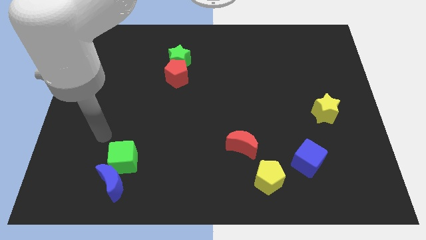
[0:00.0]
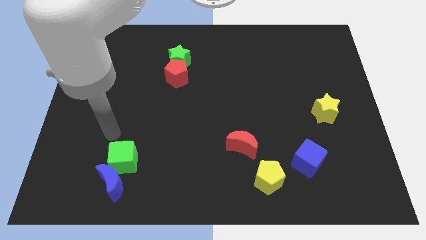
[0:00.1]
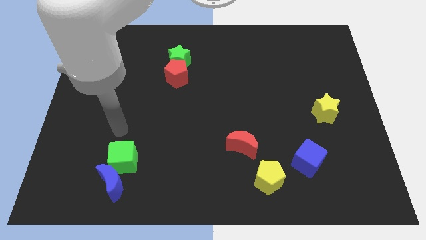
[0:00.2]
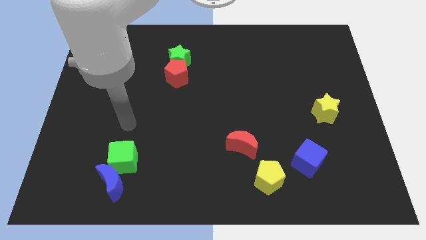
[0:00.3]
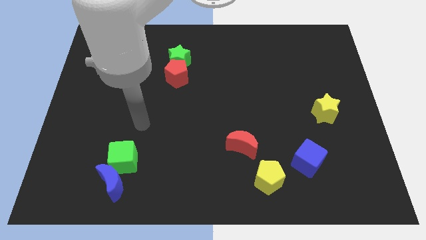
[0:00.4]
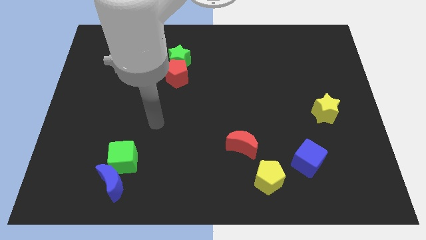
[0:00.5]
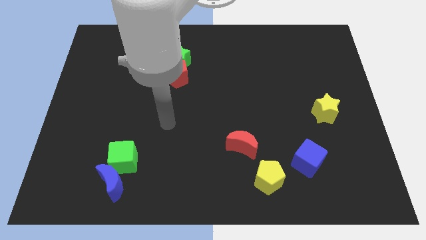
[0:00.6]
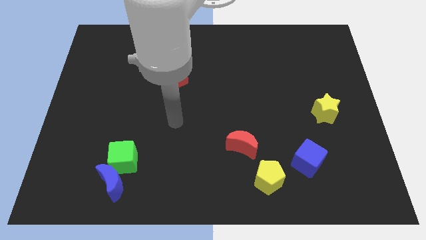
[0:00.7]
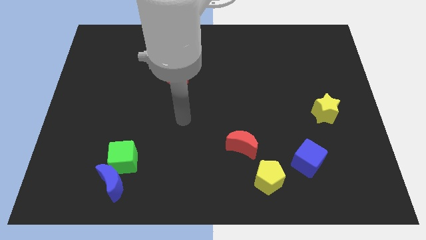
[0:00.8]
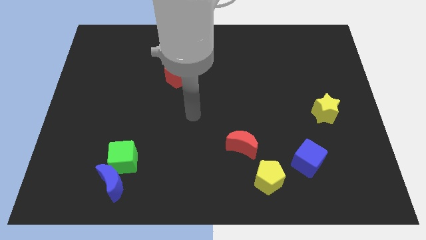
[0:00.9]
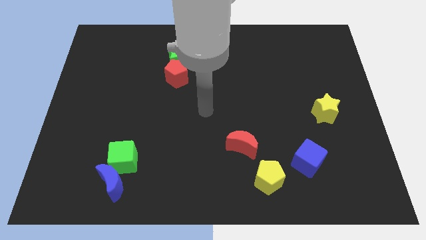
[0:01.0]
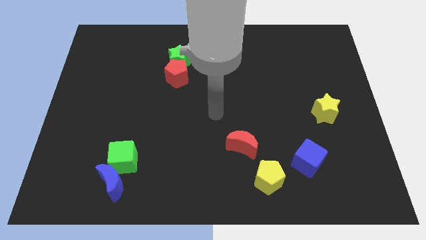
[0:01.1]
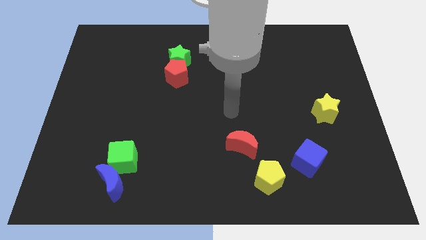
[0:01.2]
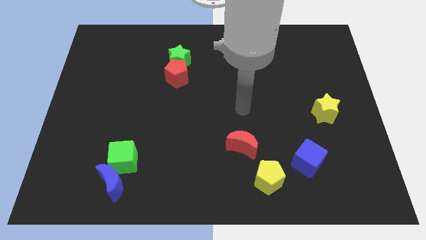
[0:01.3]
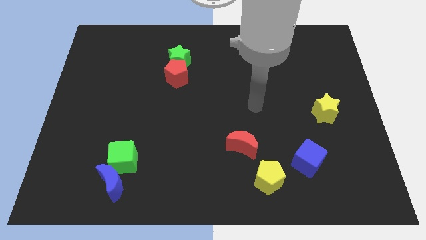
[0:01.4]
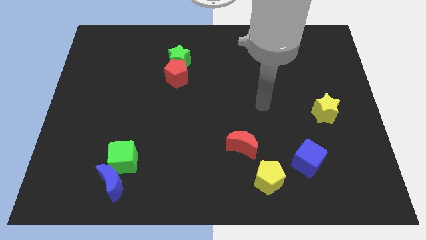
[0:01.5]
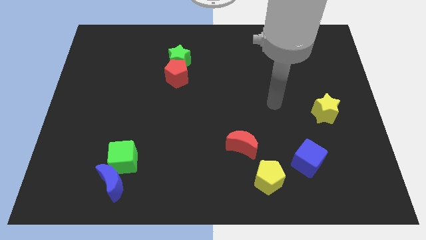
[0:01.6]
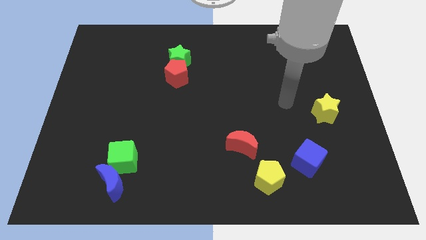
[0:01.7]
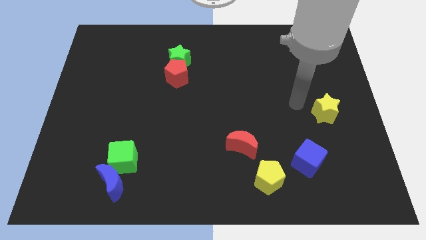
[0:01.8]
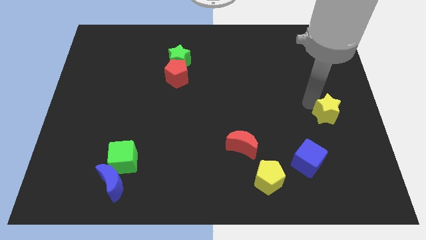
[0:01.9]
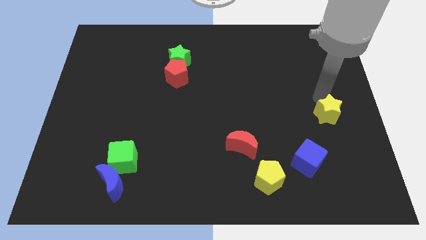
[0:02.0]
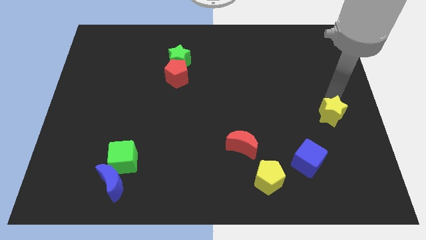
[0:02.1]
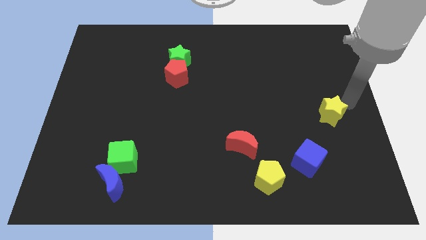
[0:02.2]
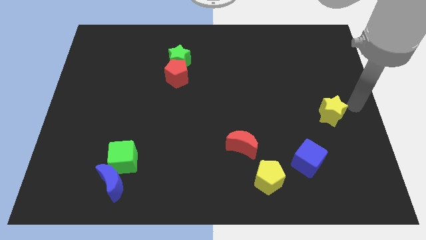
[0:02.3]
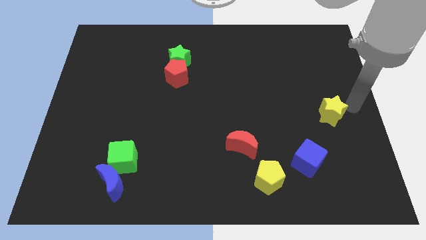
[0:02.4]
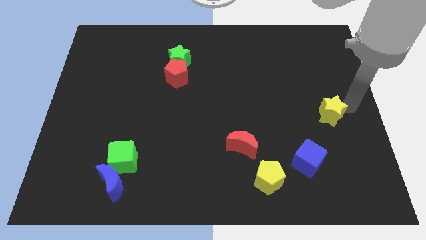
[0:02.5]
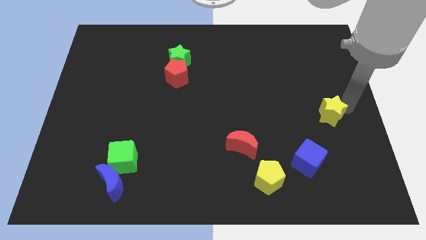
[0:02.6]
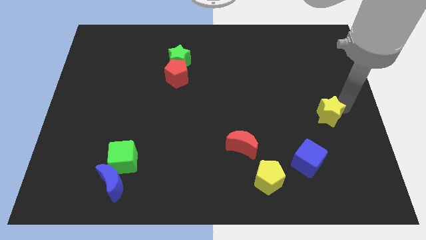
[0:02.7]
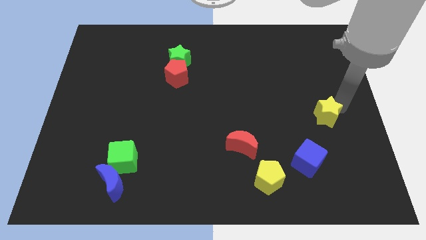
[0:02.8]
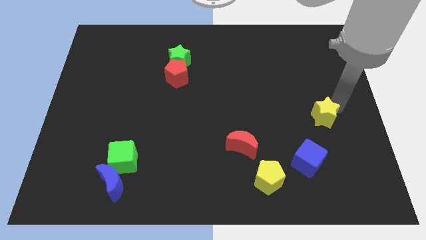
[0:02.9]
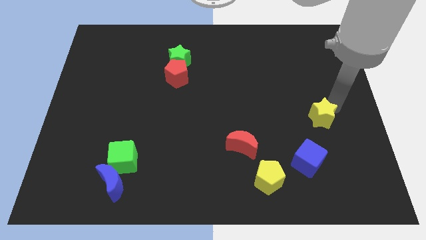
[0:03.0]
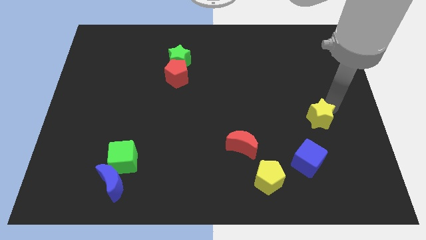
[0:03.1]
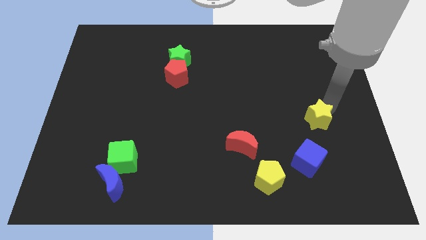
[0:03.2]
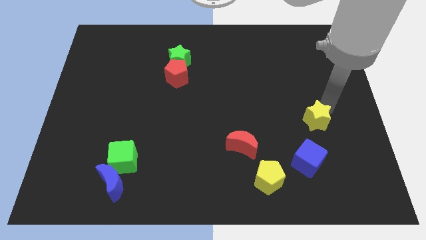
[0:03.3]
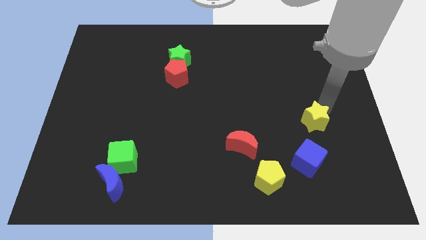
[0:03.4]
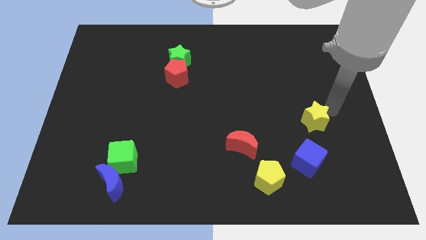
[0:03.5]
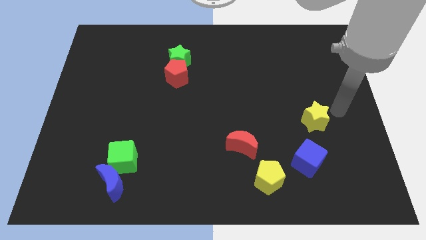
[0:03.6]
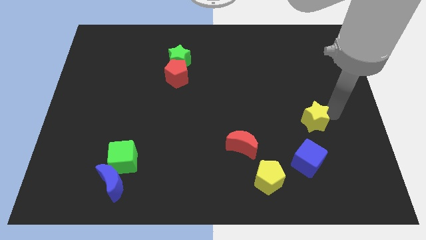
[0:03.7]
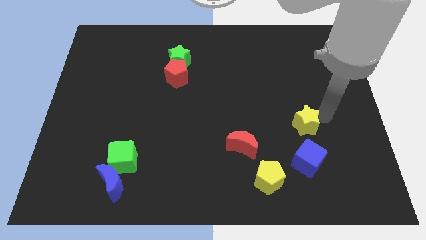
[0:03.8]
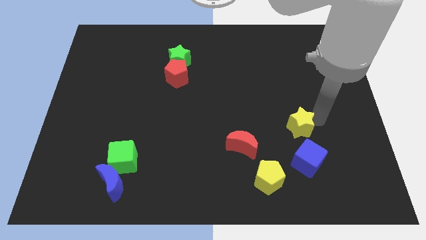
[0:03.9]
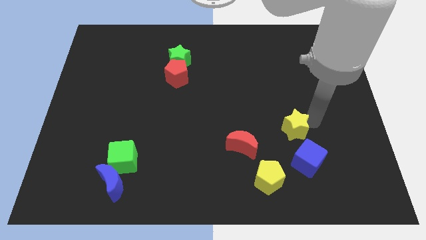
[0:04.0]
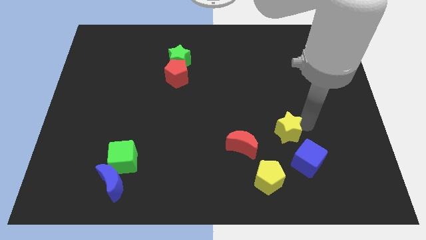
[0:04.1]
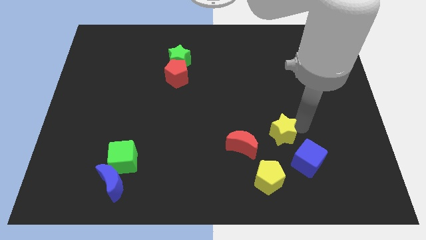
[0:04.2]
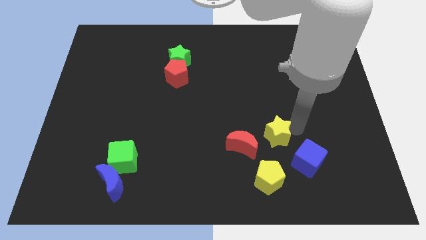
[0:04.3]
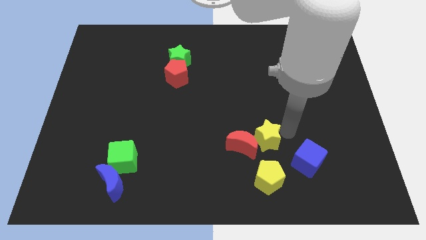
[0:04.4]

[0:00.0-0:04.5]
put the yellow star towards the red moon

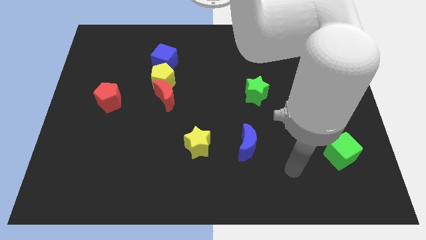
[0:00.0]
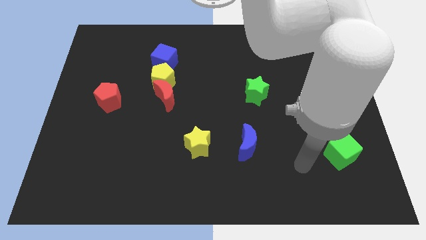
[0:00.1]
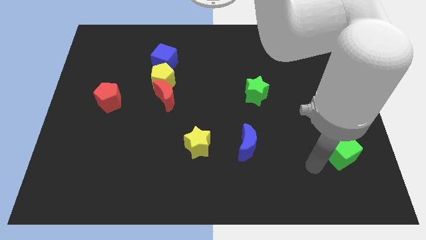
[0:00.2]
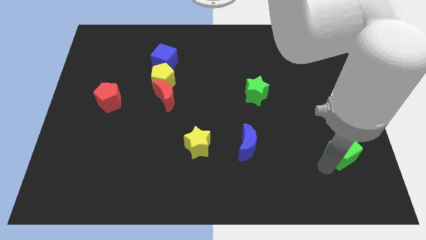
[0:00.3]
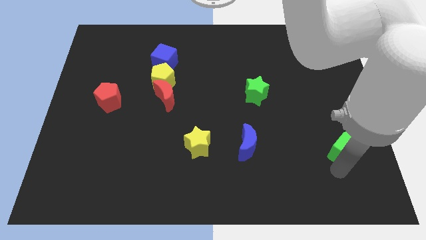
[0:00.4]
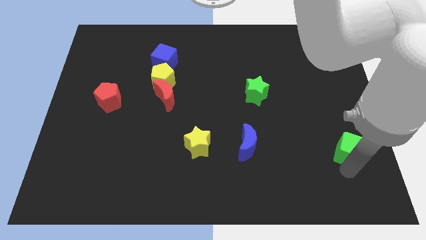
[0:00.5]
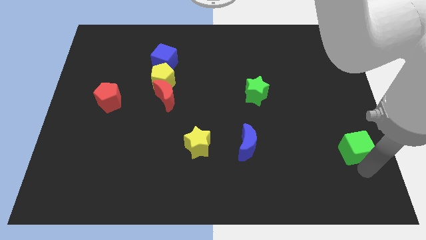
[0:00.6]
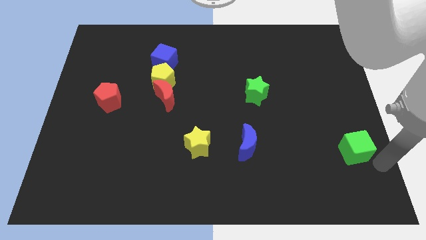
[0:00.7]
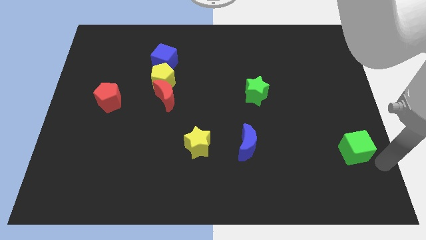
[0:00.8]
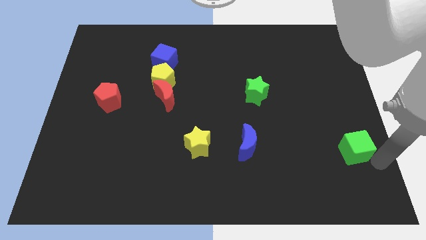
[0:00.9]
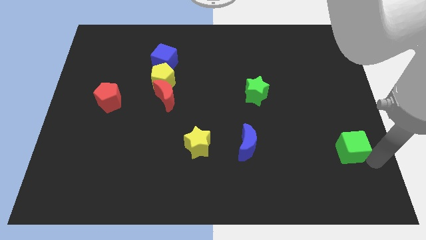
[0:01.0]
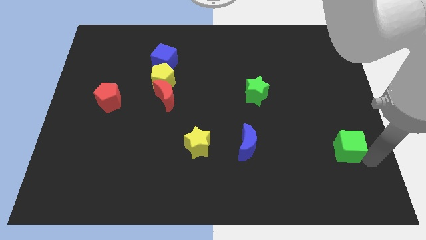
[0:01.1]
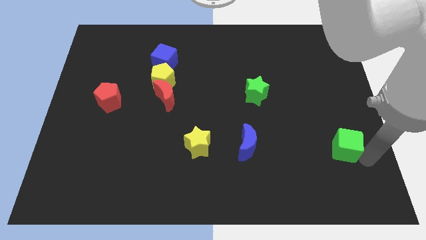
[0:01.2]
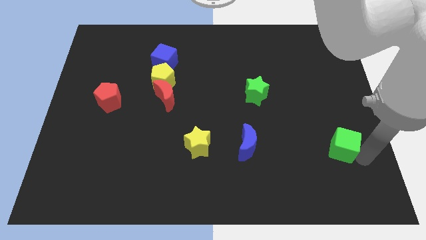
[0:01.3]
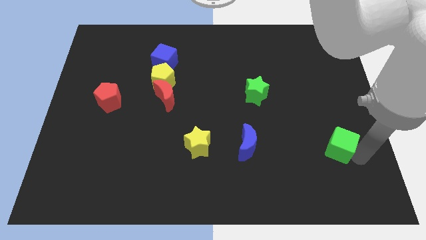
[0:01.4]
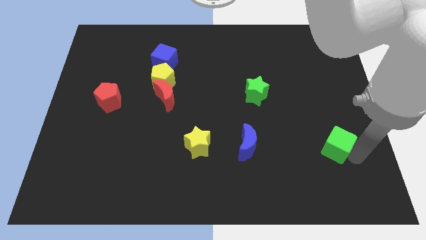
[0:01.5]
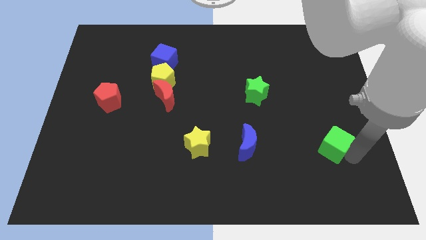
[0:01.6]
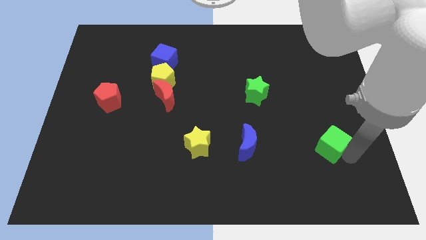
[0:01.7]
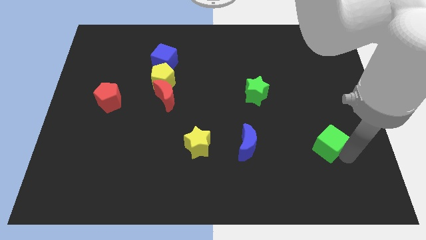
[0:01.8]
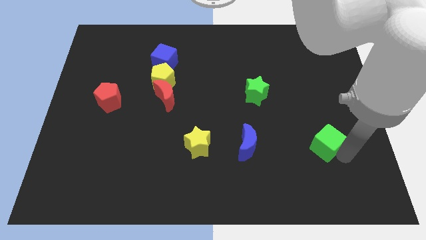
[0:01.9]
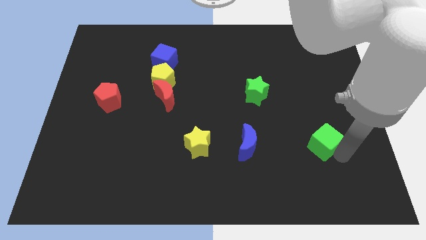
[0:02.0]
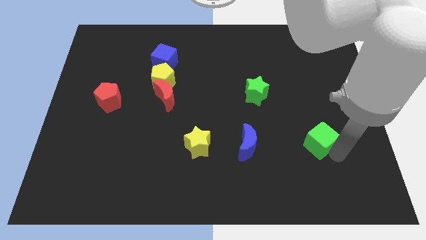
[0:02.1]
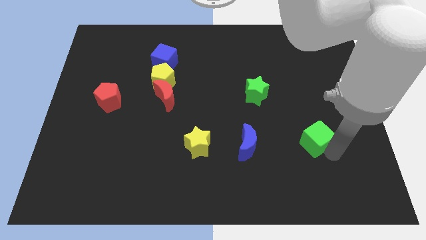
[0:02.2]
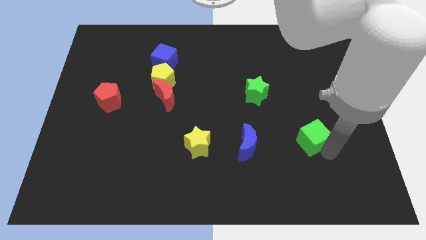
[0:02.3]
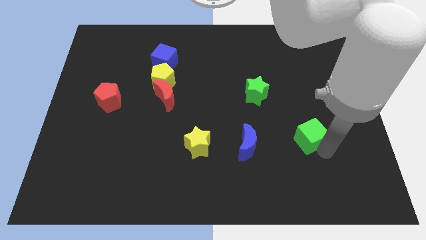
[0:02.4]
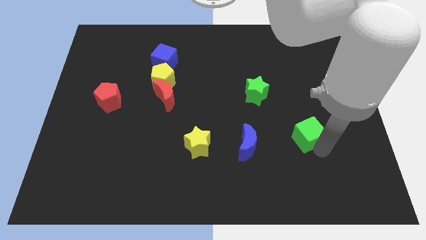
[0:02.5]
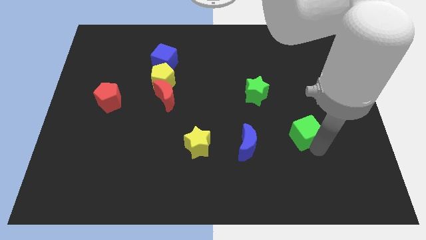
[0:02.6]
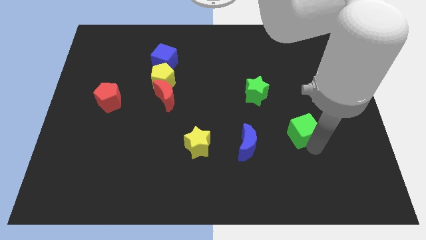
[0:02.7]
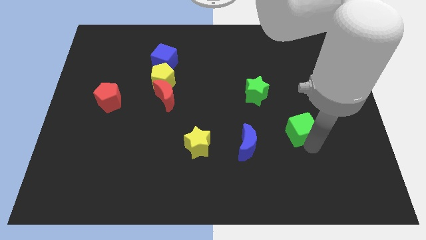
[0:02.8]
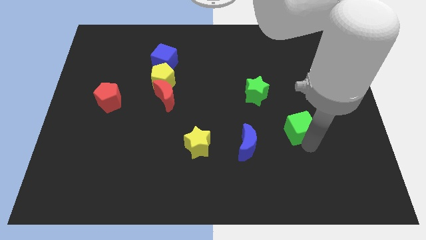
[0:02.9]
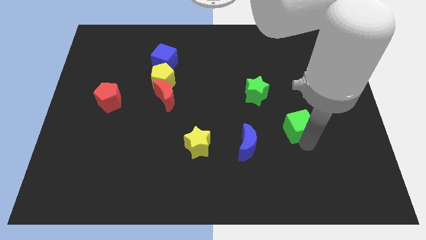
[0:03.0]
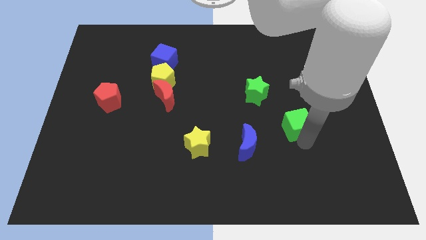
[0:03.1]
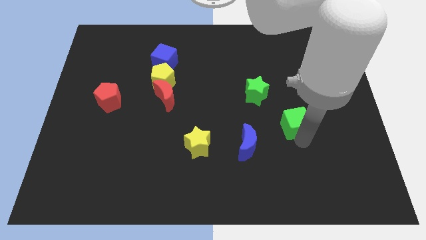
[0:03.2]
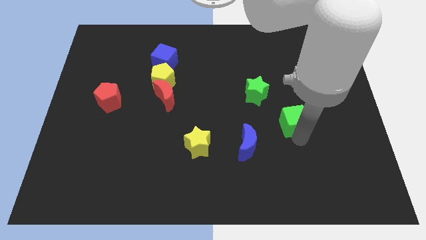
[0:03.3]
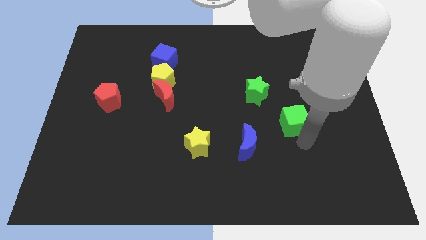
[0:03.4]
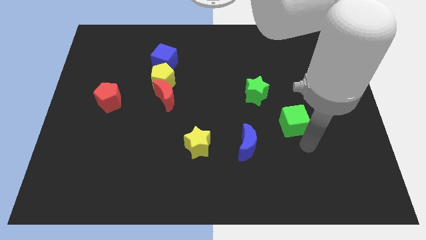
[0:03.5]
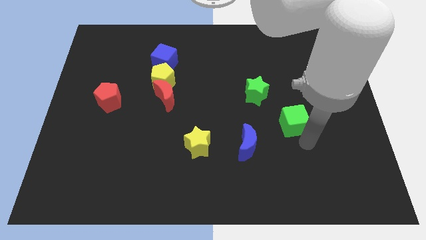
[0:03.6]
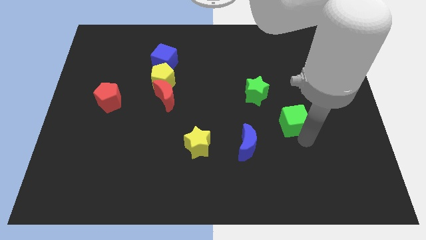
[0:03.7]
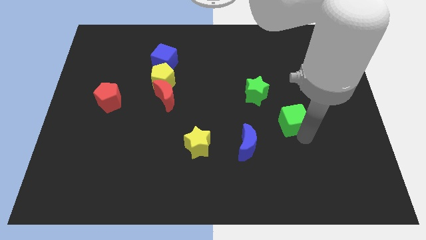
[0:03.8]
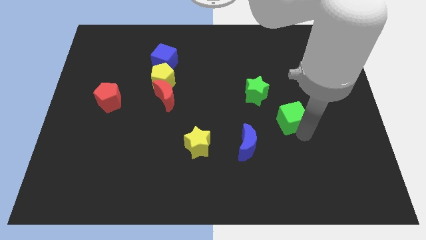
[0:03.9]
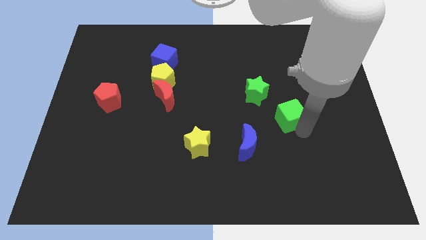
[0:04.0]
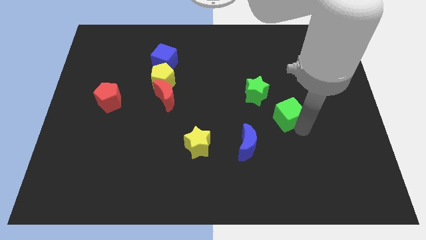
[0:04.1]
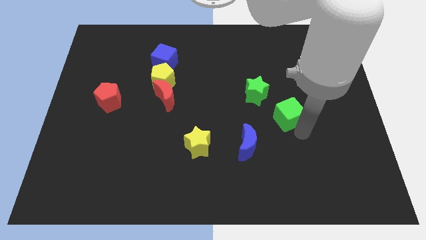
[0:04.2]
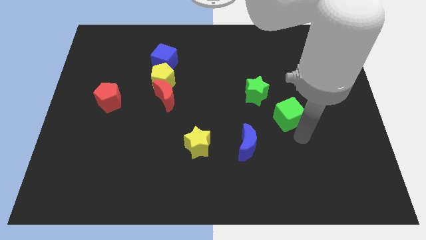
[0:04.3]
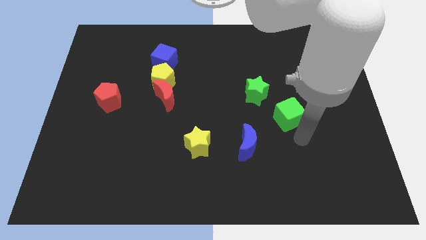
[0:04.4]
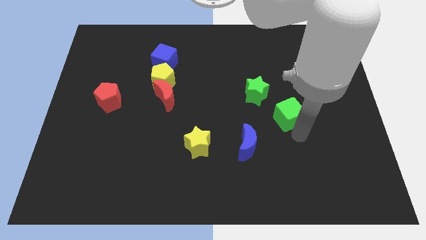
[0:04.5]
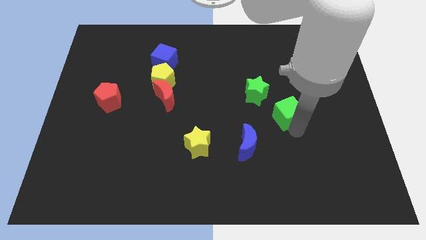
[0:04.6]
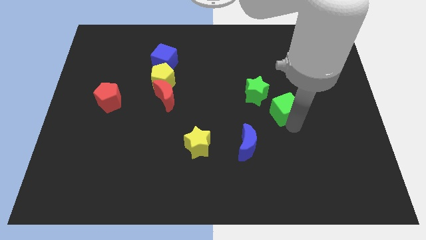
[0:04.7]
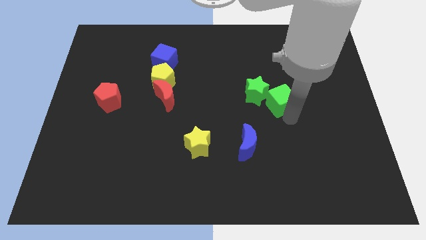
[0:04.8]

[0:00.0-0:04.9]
put the green cube next to the green star
